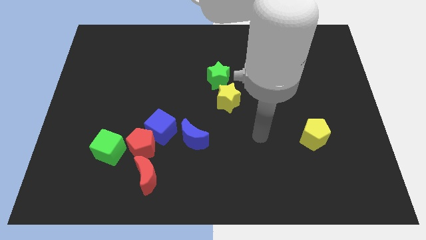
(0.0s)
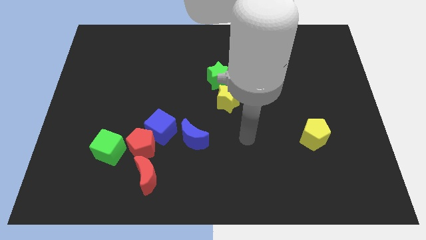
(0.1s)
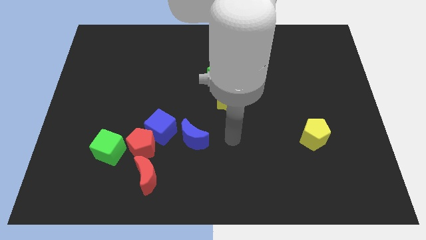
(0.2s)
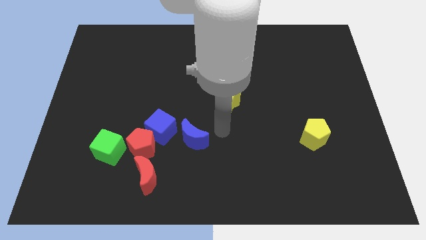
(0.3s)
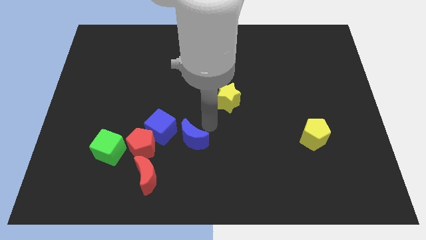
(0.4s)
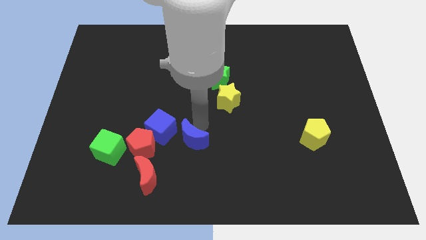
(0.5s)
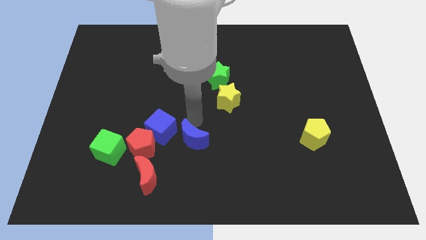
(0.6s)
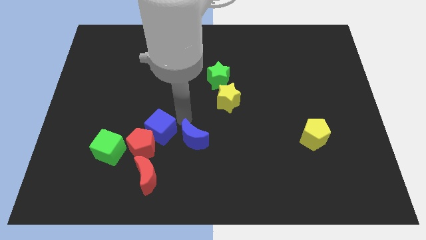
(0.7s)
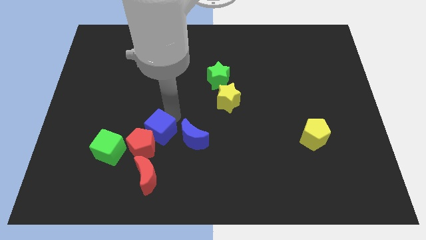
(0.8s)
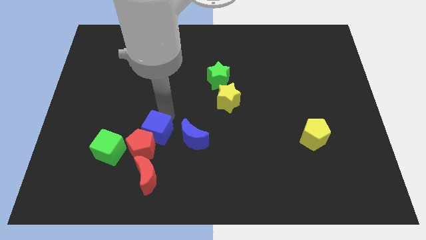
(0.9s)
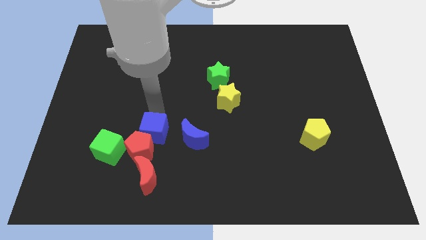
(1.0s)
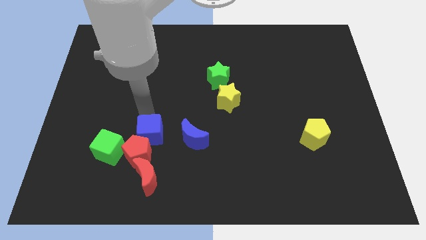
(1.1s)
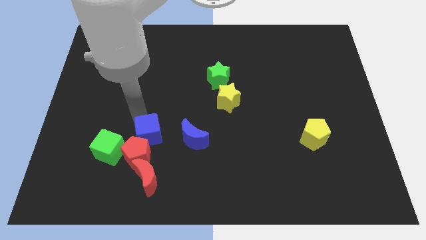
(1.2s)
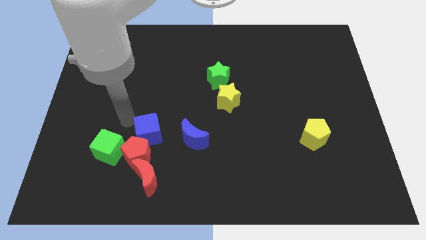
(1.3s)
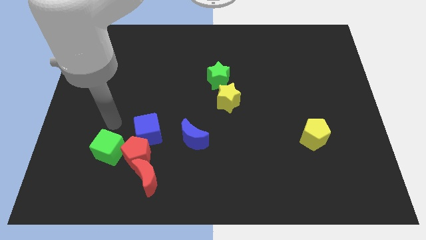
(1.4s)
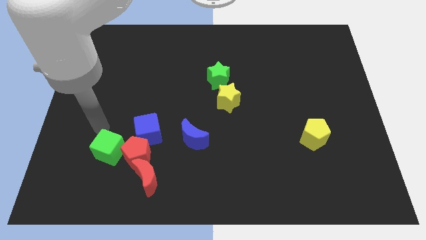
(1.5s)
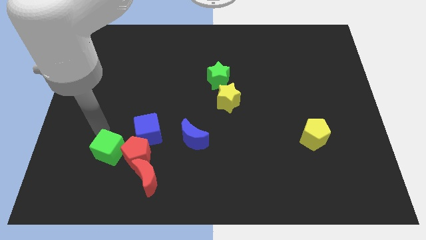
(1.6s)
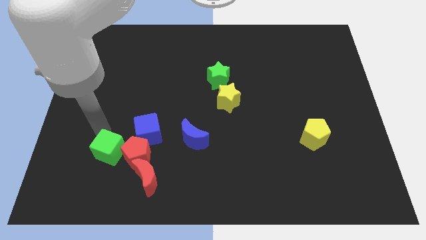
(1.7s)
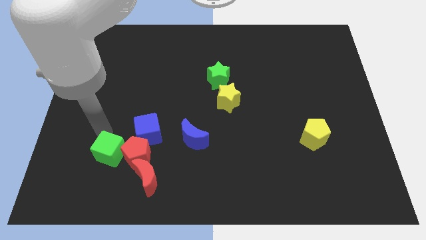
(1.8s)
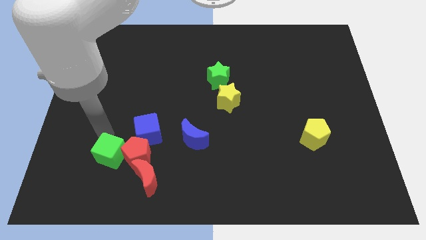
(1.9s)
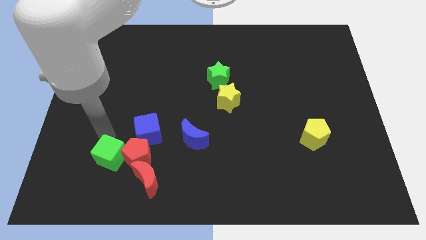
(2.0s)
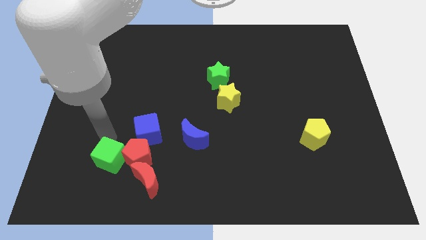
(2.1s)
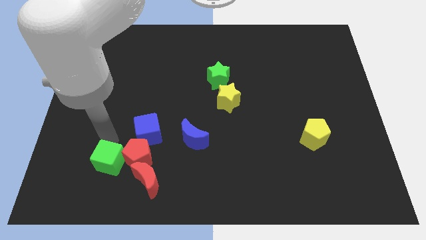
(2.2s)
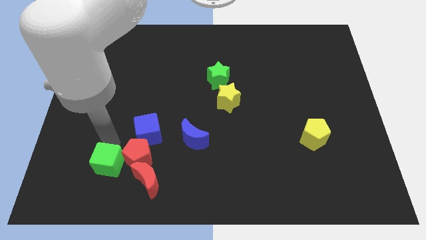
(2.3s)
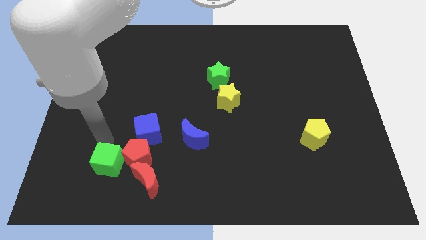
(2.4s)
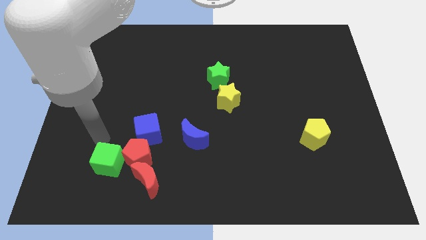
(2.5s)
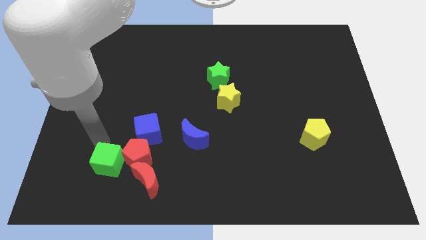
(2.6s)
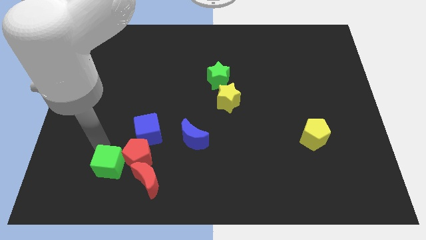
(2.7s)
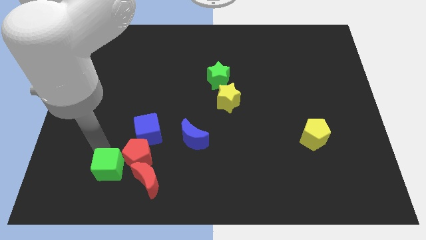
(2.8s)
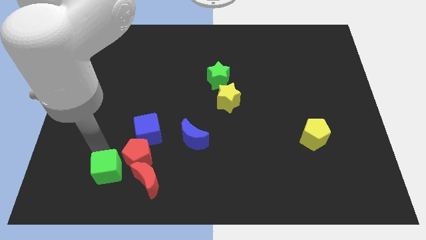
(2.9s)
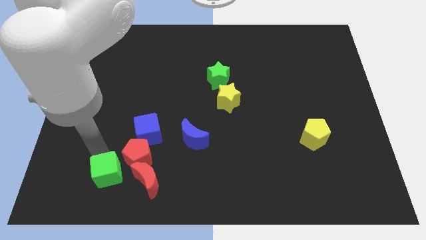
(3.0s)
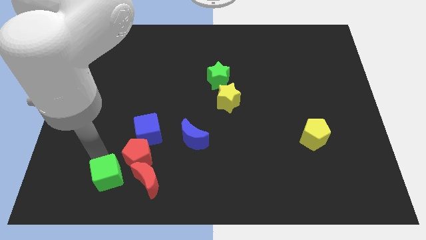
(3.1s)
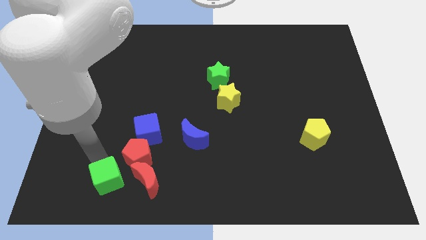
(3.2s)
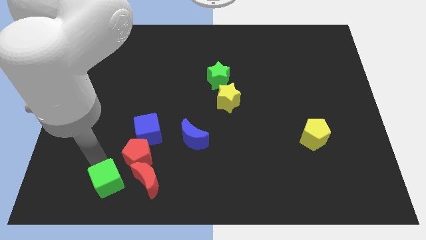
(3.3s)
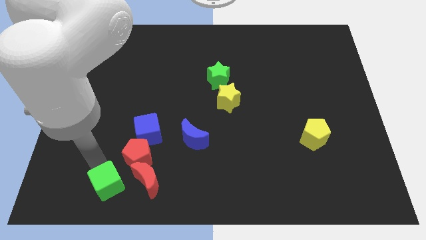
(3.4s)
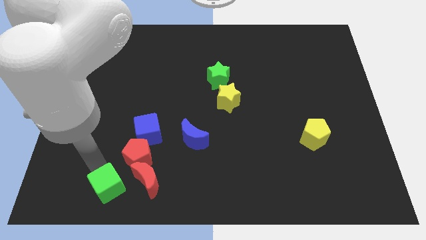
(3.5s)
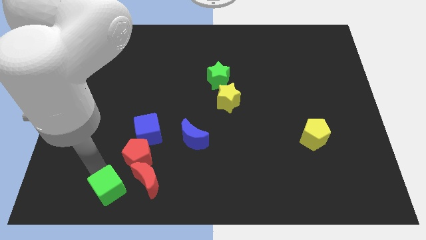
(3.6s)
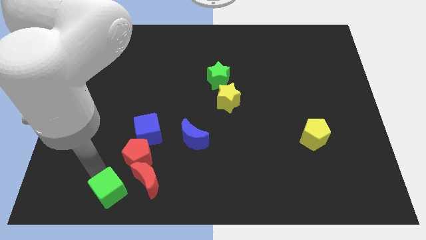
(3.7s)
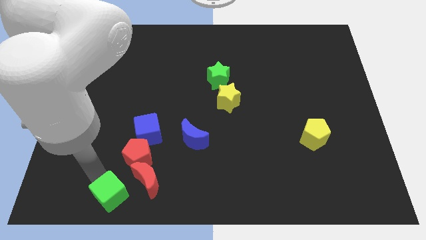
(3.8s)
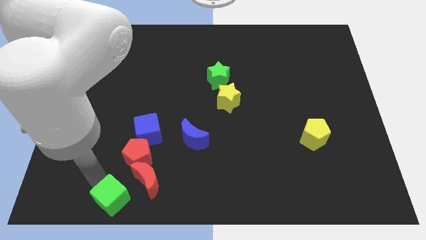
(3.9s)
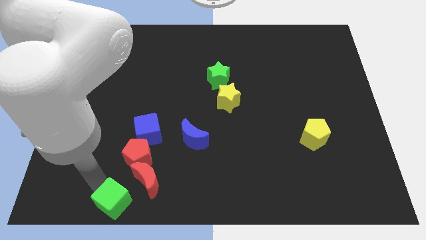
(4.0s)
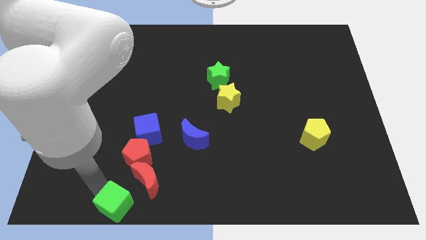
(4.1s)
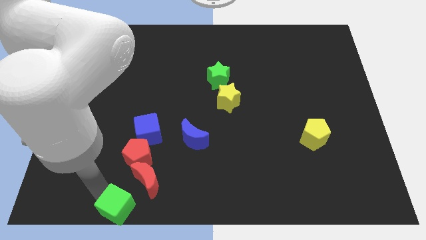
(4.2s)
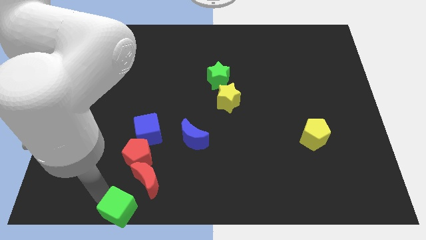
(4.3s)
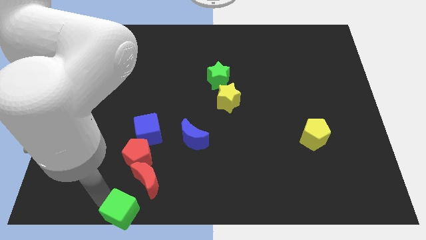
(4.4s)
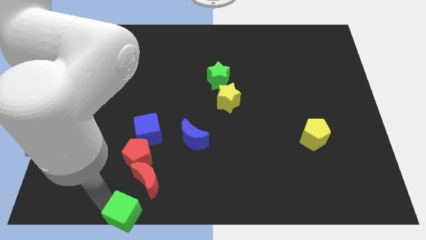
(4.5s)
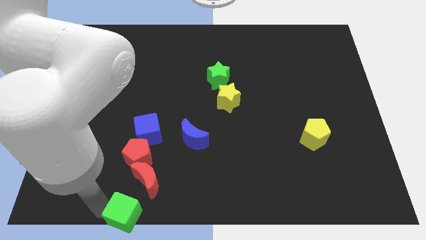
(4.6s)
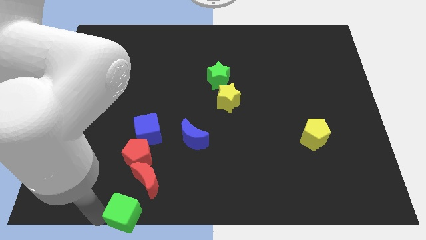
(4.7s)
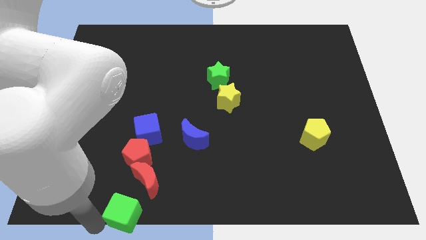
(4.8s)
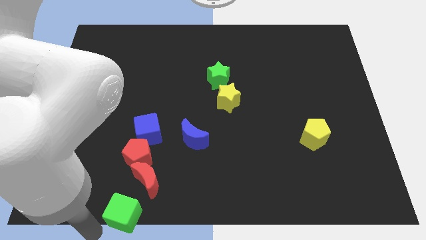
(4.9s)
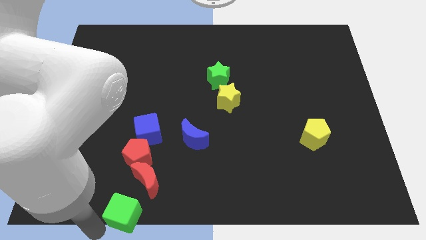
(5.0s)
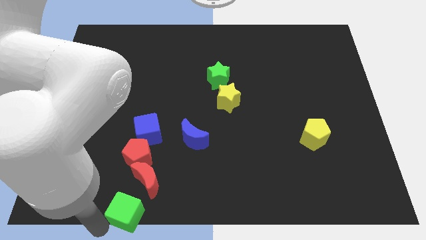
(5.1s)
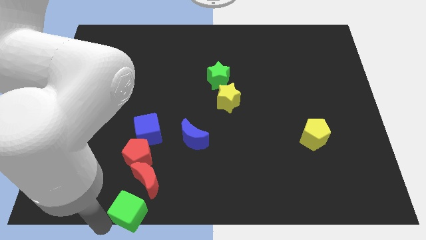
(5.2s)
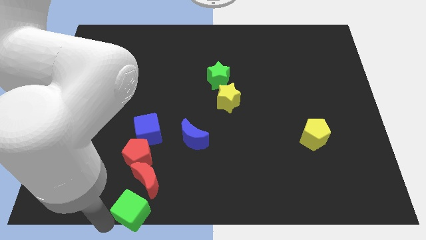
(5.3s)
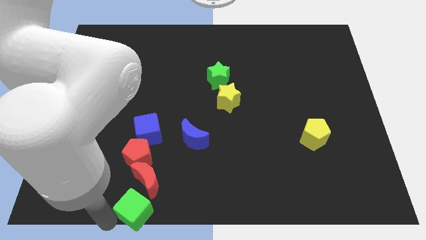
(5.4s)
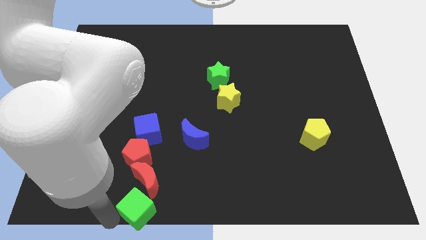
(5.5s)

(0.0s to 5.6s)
slide the green cube to the bottom

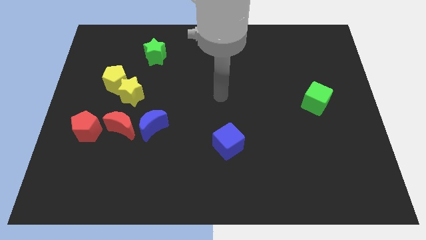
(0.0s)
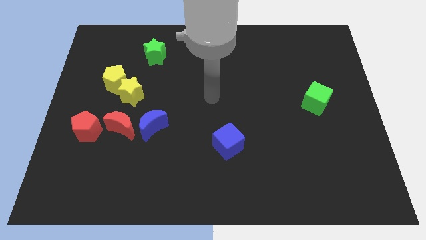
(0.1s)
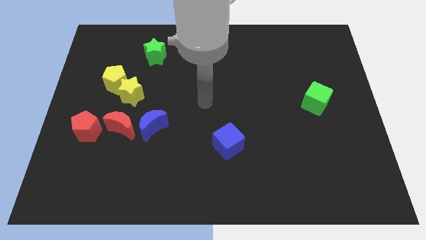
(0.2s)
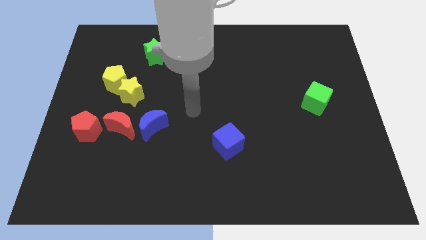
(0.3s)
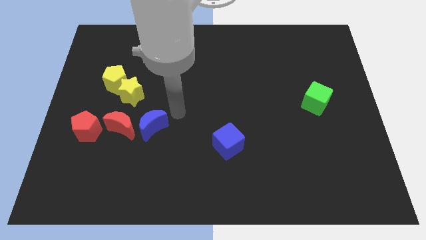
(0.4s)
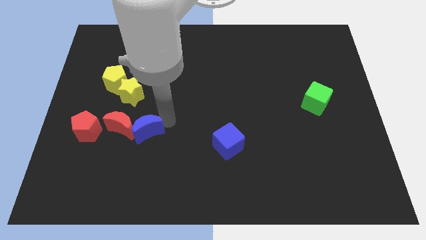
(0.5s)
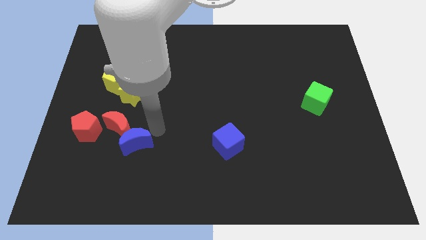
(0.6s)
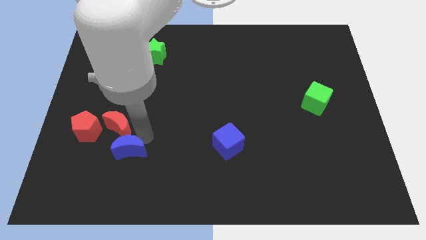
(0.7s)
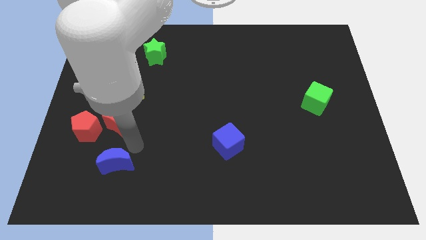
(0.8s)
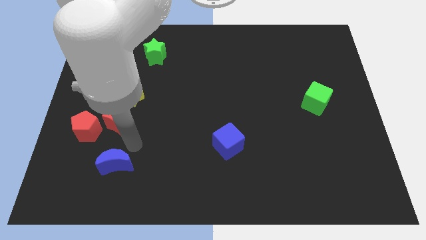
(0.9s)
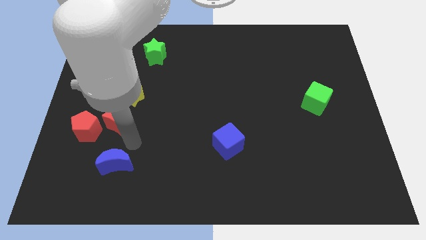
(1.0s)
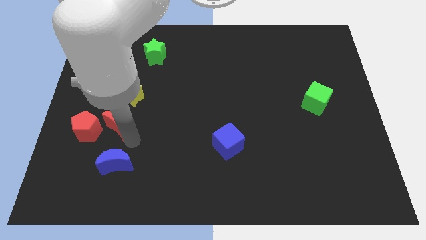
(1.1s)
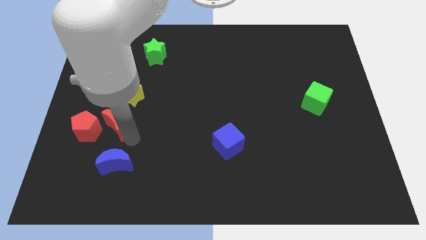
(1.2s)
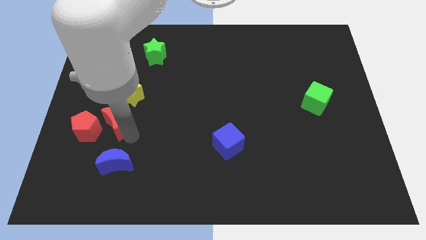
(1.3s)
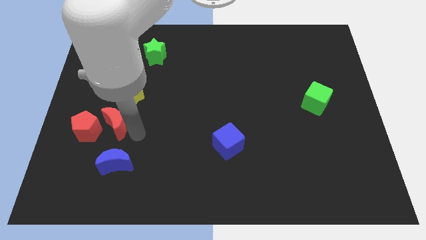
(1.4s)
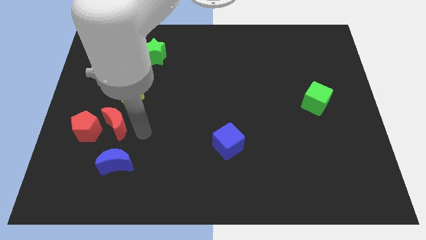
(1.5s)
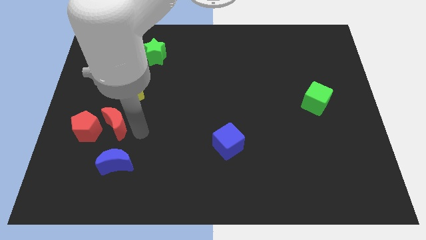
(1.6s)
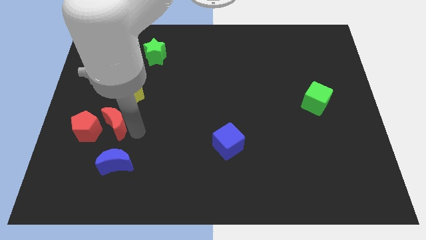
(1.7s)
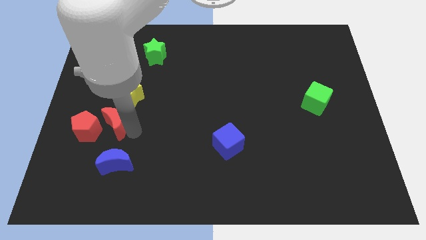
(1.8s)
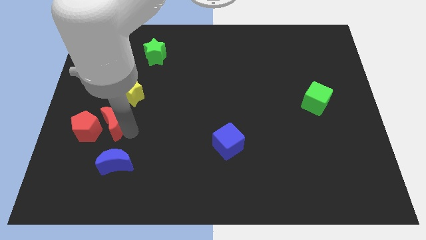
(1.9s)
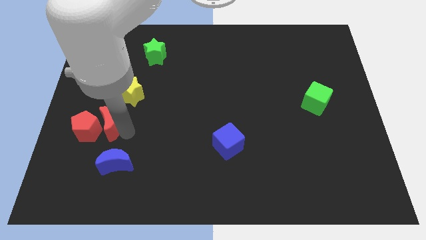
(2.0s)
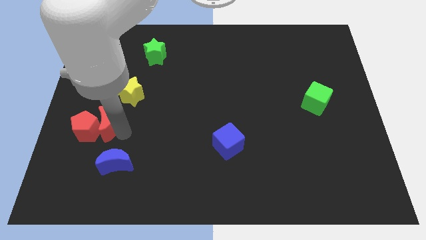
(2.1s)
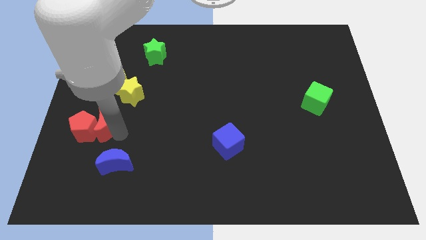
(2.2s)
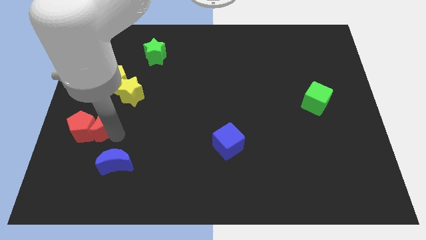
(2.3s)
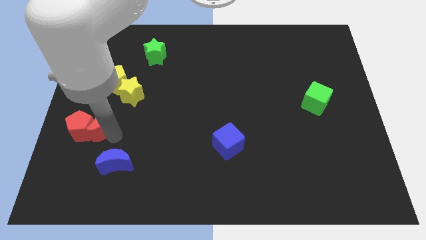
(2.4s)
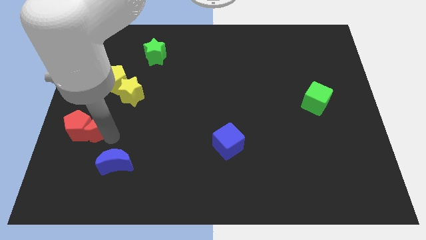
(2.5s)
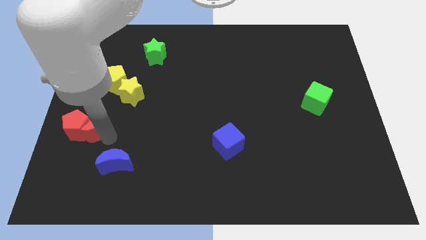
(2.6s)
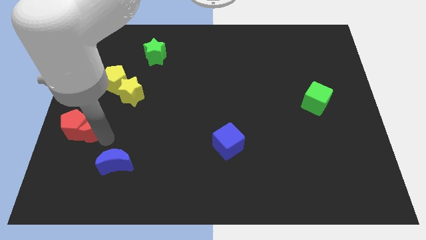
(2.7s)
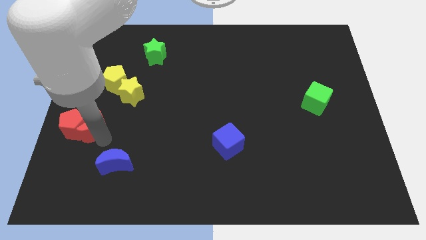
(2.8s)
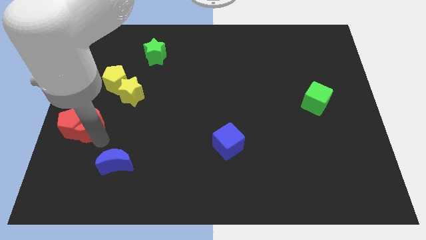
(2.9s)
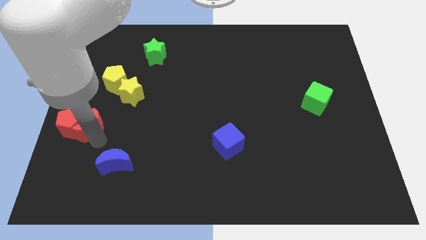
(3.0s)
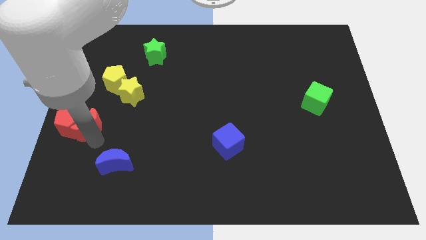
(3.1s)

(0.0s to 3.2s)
slide the red moon to the left side
